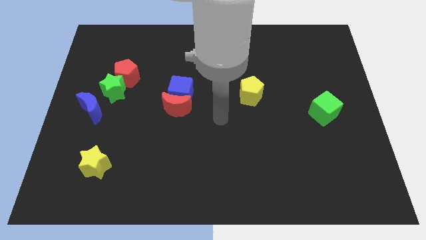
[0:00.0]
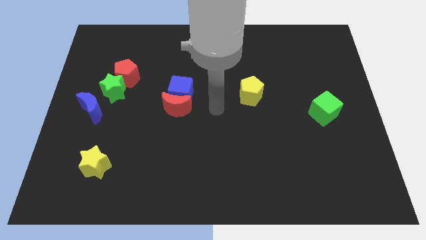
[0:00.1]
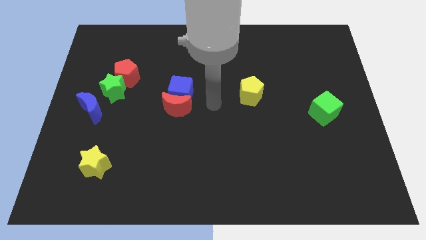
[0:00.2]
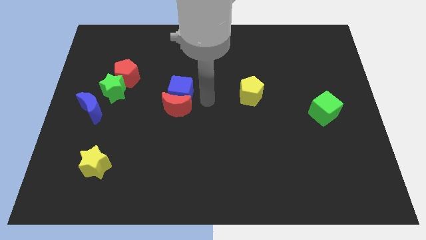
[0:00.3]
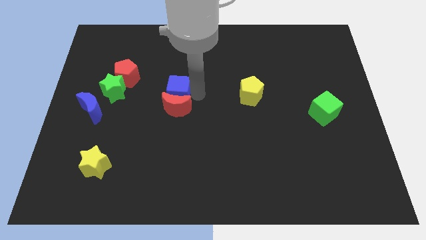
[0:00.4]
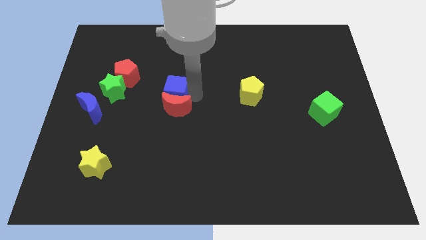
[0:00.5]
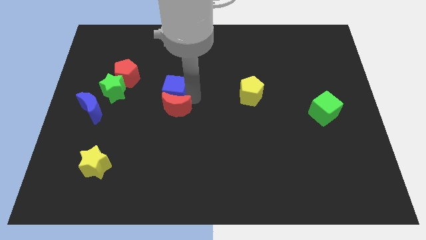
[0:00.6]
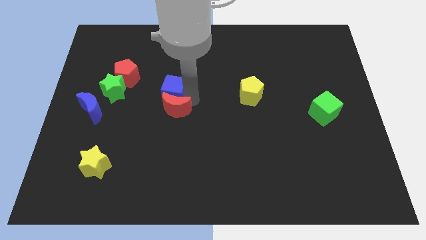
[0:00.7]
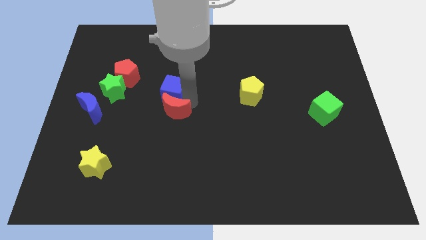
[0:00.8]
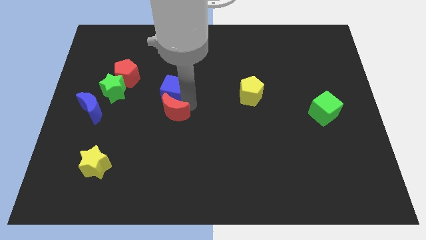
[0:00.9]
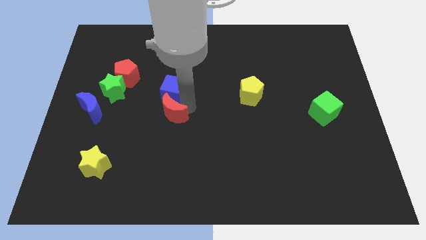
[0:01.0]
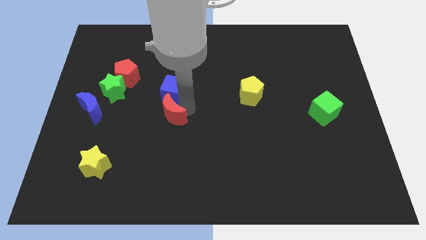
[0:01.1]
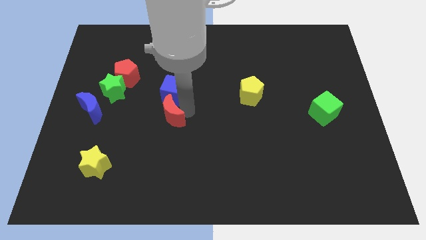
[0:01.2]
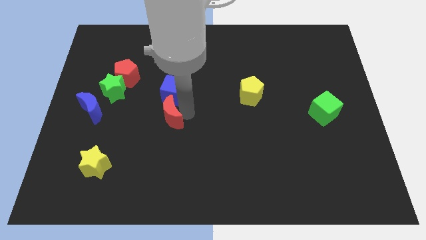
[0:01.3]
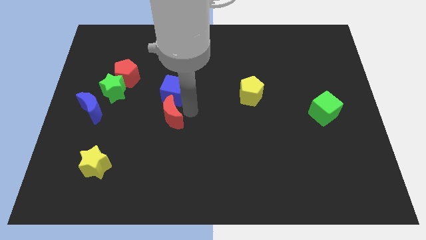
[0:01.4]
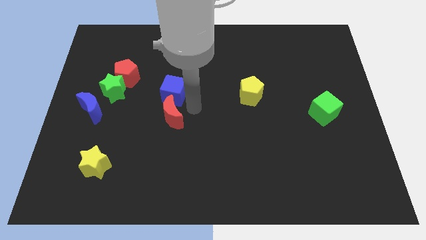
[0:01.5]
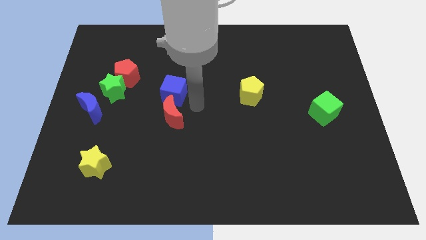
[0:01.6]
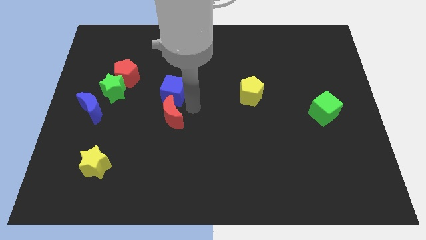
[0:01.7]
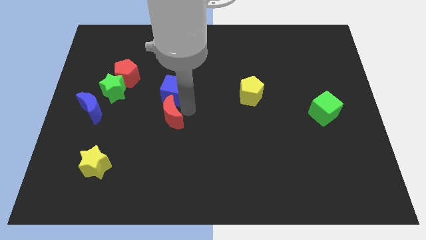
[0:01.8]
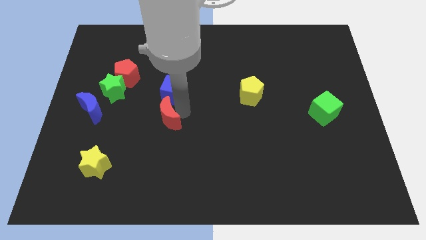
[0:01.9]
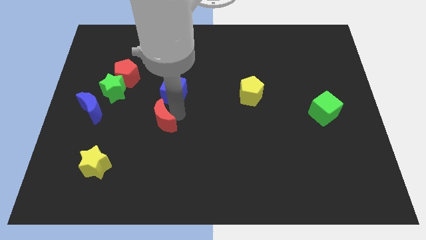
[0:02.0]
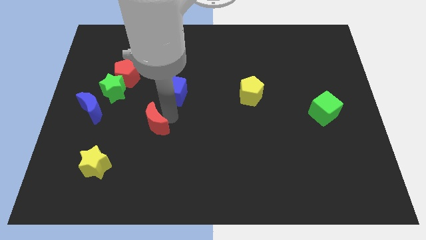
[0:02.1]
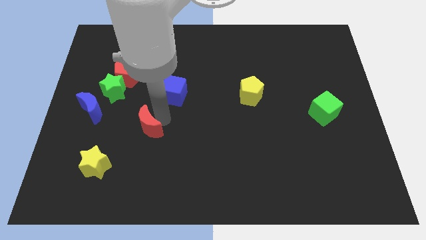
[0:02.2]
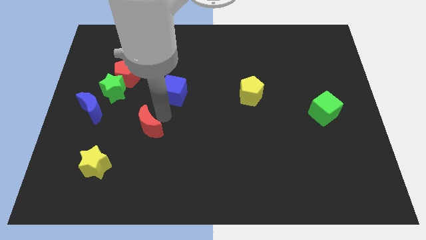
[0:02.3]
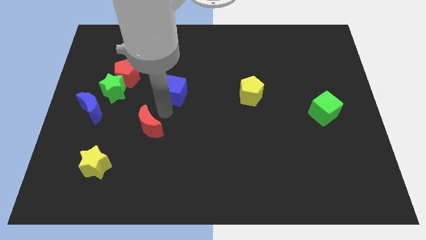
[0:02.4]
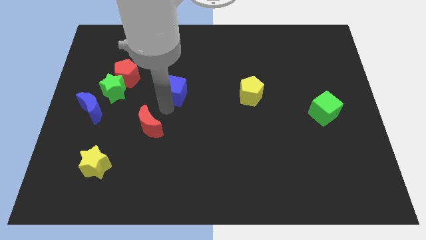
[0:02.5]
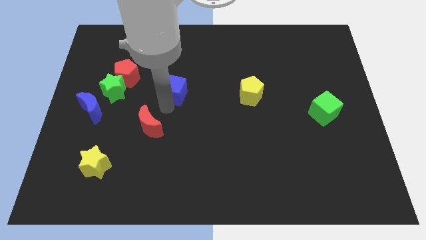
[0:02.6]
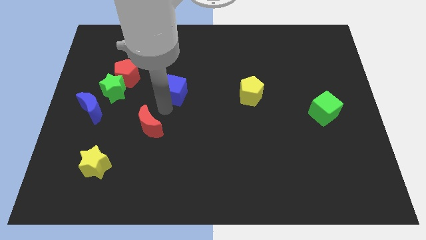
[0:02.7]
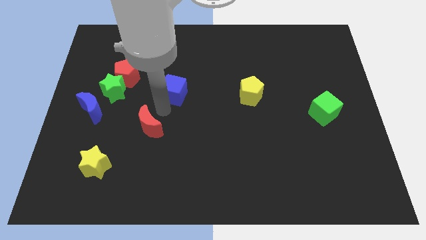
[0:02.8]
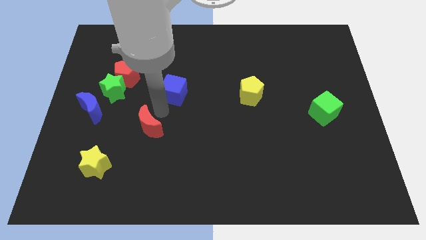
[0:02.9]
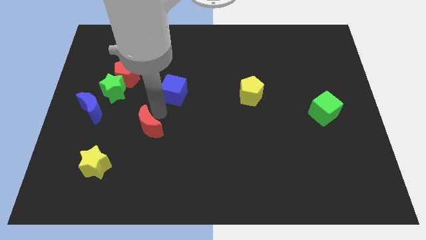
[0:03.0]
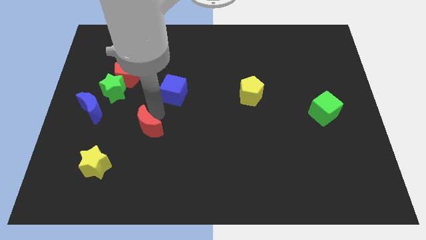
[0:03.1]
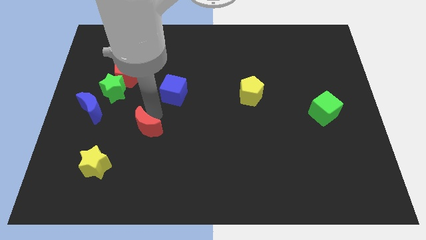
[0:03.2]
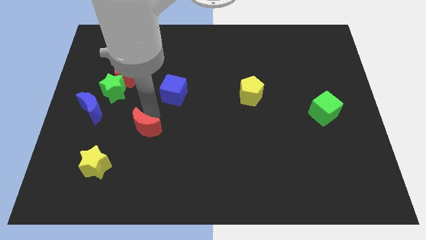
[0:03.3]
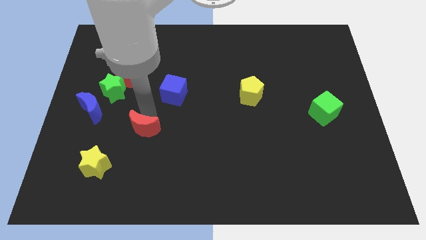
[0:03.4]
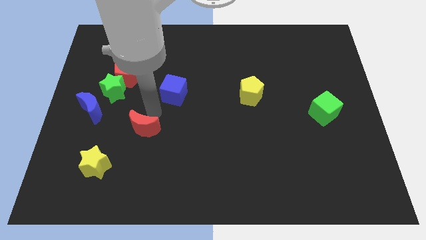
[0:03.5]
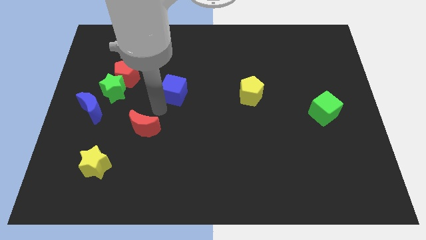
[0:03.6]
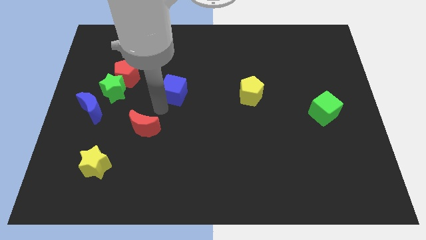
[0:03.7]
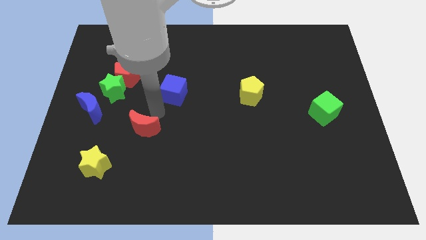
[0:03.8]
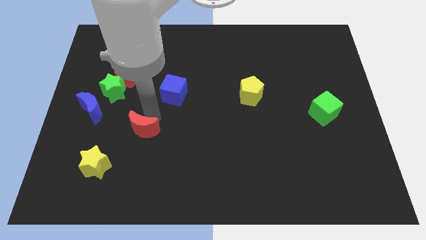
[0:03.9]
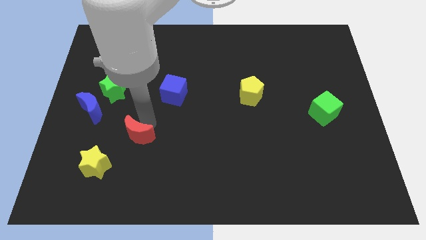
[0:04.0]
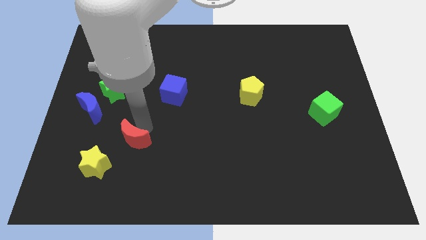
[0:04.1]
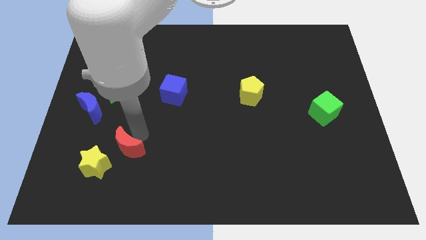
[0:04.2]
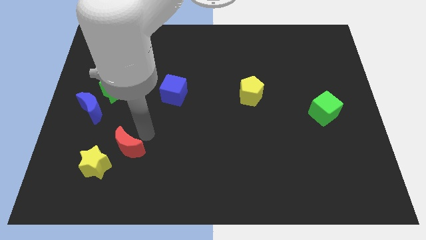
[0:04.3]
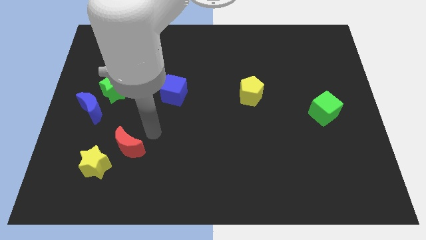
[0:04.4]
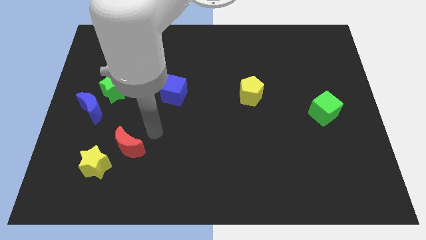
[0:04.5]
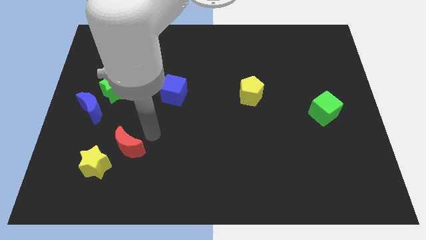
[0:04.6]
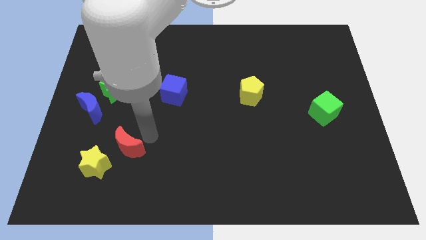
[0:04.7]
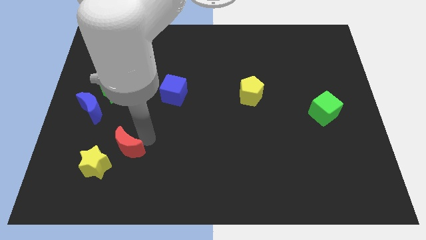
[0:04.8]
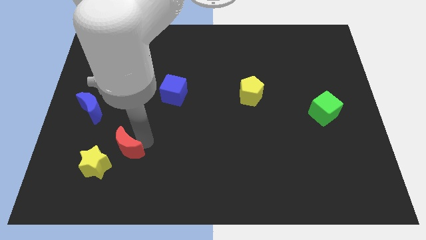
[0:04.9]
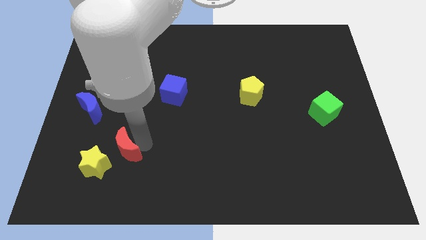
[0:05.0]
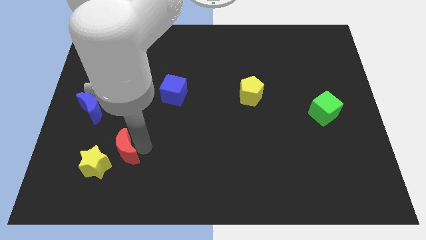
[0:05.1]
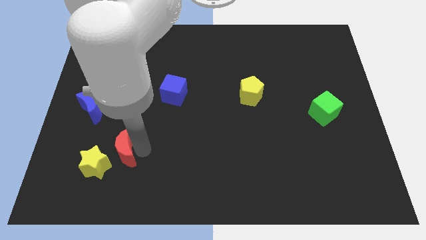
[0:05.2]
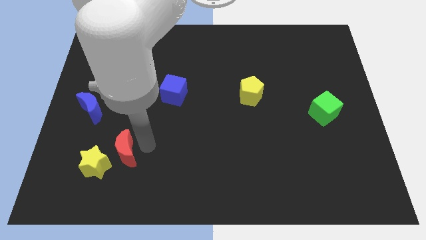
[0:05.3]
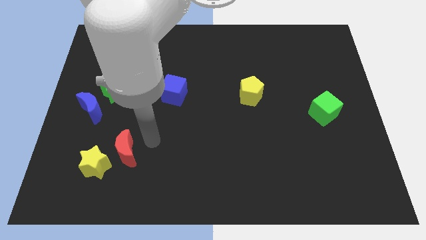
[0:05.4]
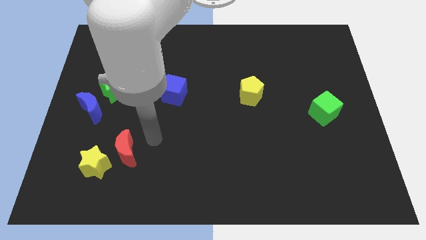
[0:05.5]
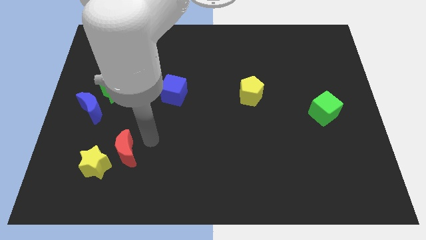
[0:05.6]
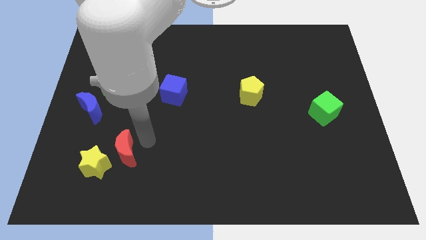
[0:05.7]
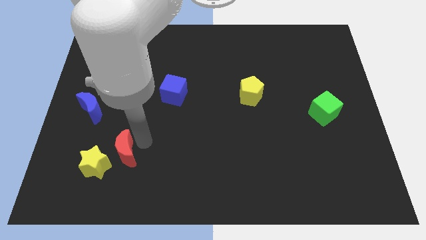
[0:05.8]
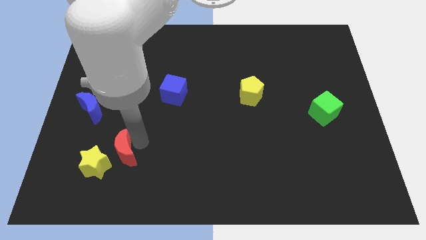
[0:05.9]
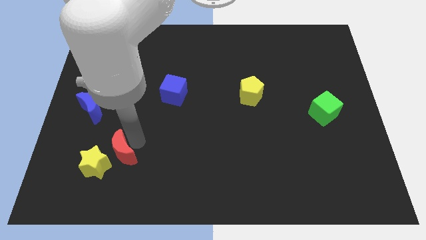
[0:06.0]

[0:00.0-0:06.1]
push the red moon close to the yellow star

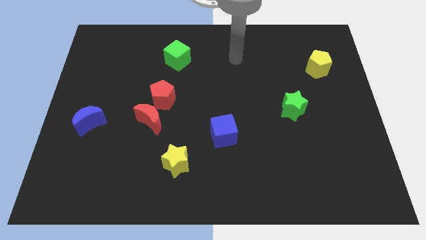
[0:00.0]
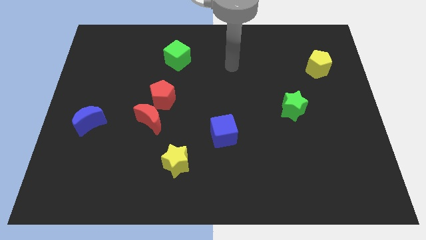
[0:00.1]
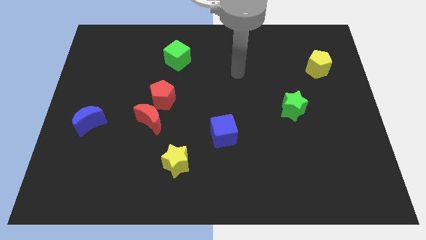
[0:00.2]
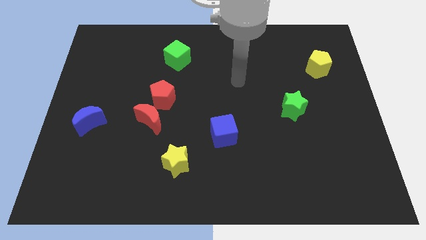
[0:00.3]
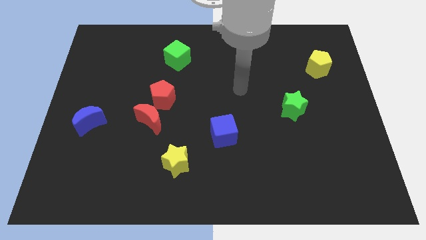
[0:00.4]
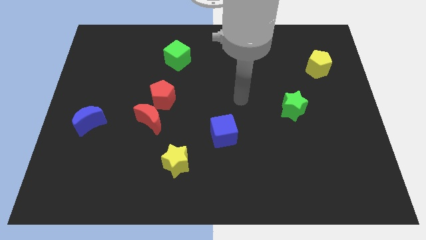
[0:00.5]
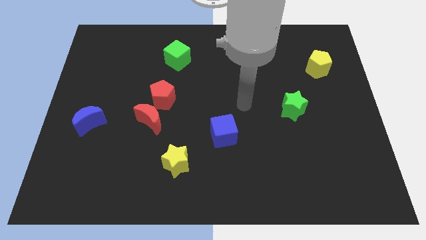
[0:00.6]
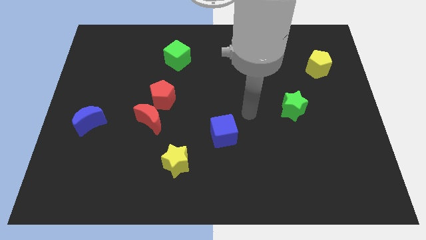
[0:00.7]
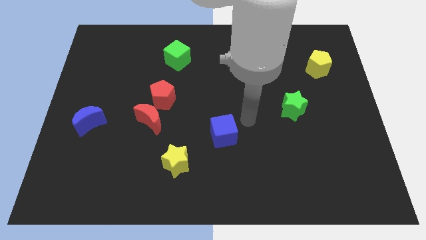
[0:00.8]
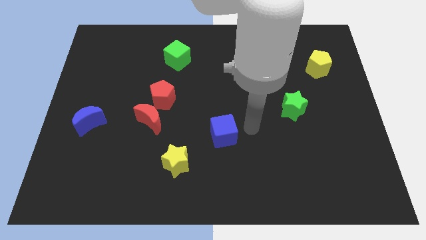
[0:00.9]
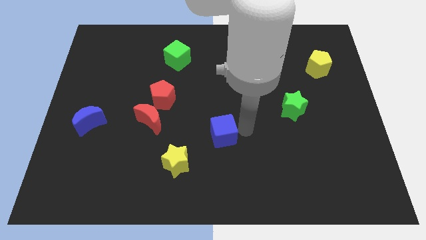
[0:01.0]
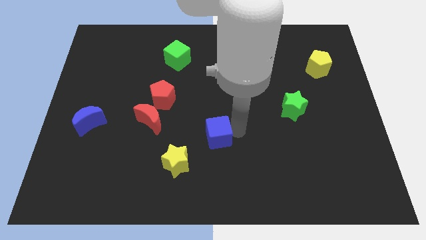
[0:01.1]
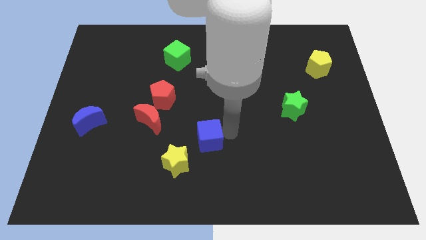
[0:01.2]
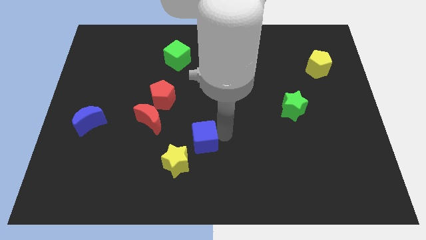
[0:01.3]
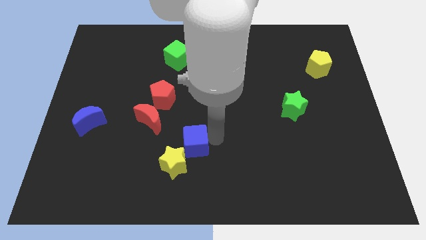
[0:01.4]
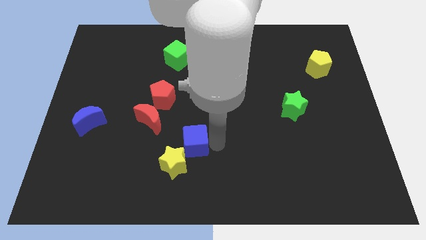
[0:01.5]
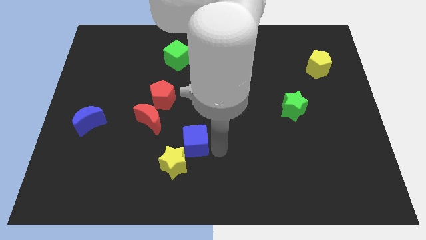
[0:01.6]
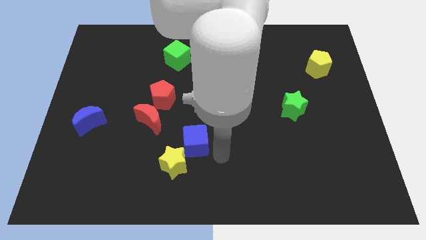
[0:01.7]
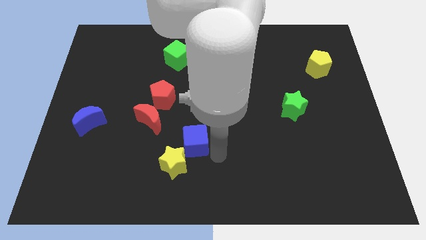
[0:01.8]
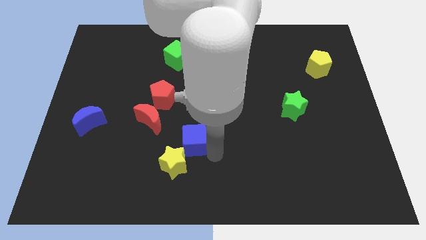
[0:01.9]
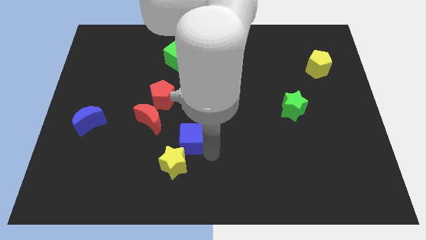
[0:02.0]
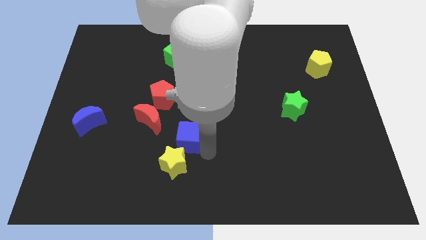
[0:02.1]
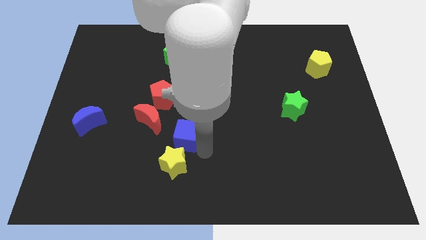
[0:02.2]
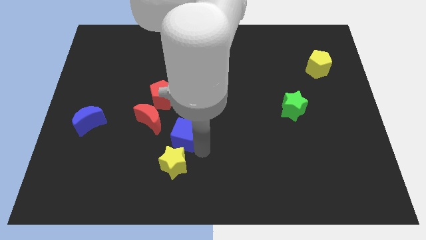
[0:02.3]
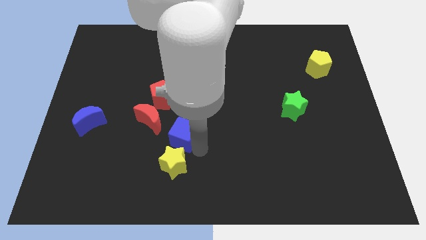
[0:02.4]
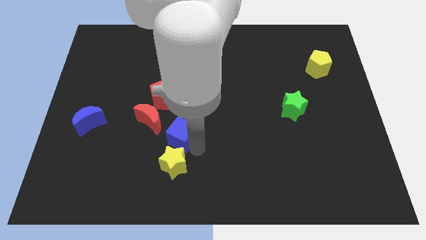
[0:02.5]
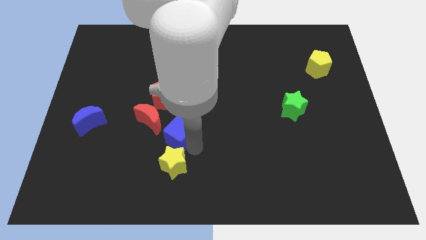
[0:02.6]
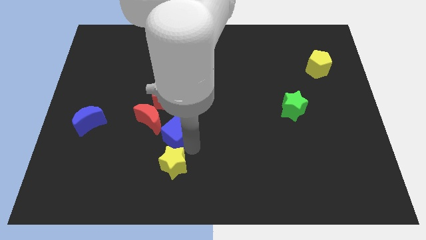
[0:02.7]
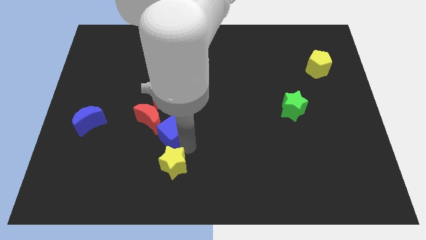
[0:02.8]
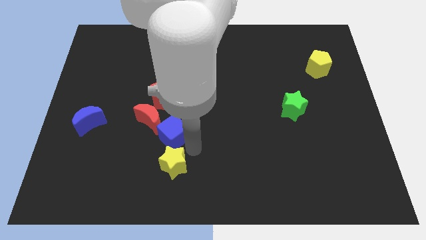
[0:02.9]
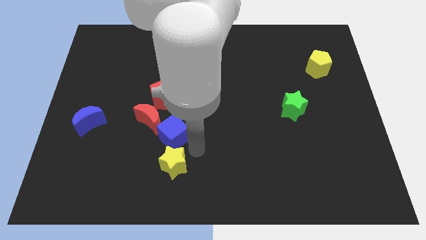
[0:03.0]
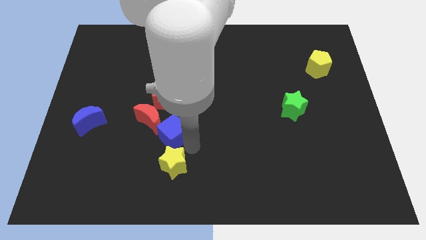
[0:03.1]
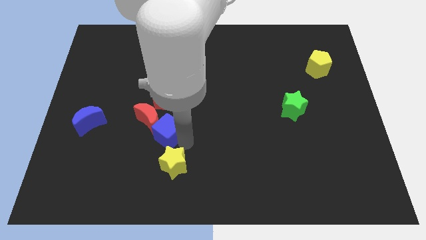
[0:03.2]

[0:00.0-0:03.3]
put the blue cube close to the red moon
